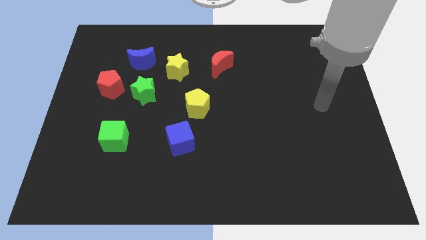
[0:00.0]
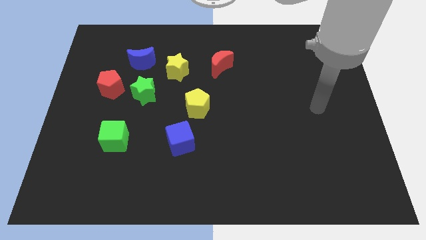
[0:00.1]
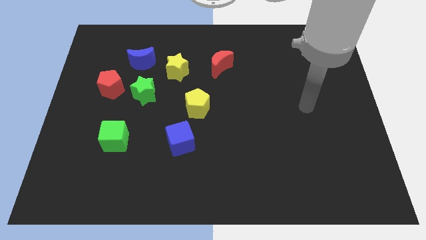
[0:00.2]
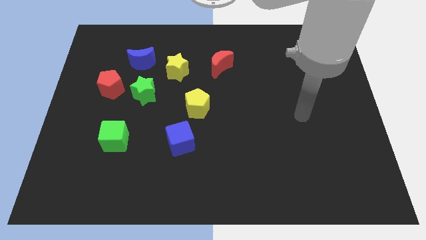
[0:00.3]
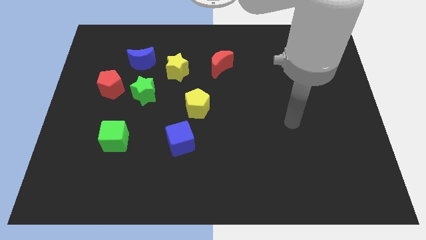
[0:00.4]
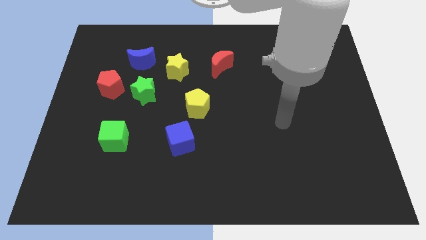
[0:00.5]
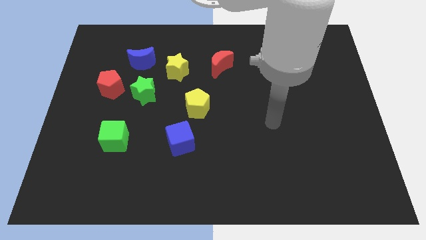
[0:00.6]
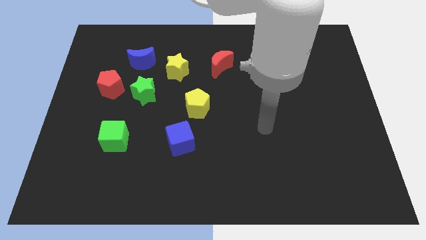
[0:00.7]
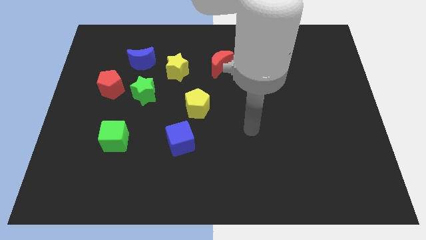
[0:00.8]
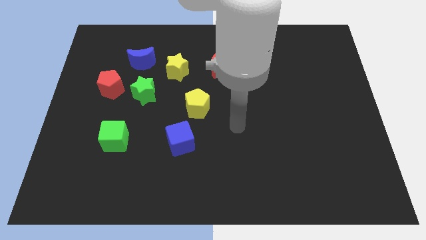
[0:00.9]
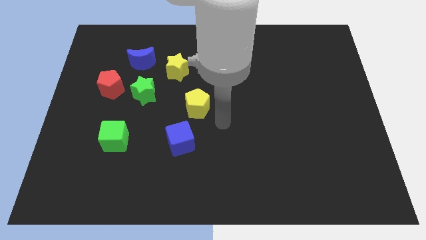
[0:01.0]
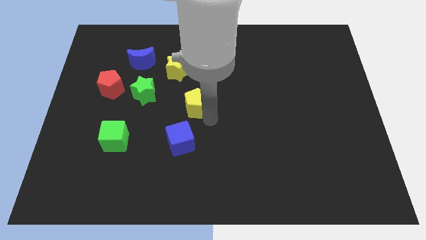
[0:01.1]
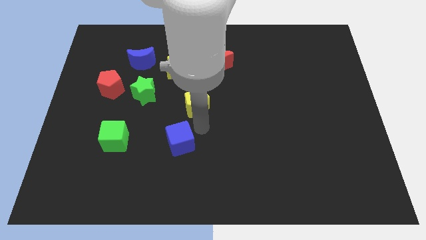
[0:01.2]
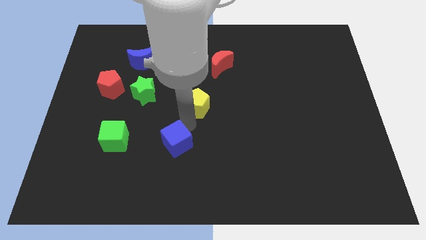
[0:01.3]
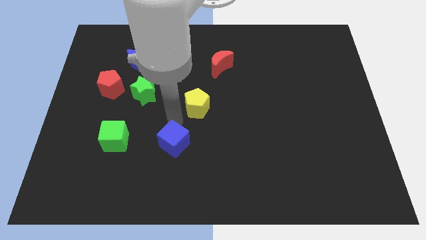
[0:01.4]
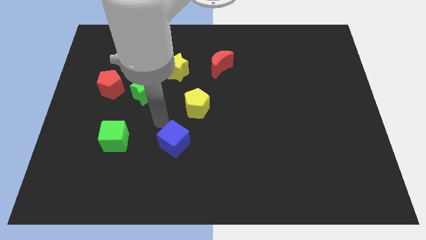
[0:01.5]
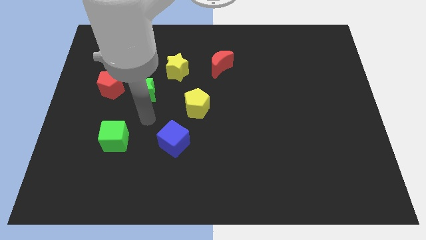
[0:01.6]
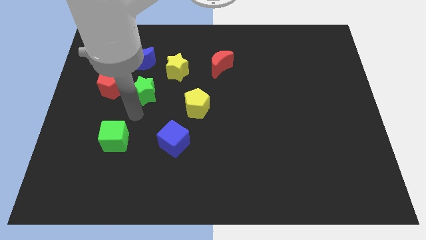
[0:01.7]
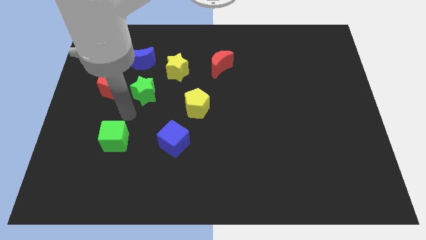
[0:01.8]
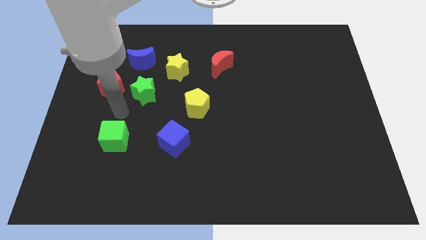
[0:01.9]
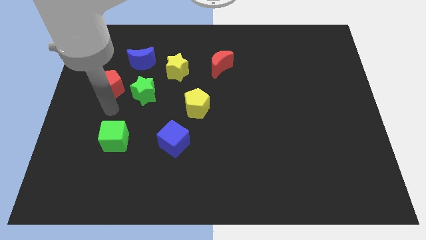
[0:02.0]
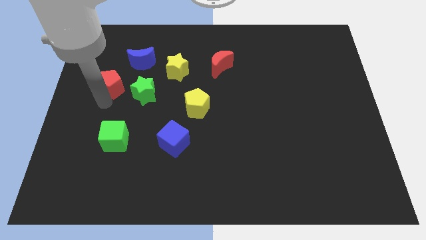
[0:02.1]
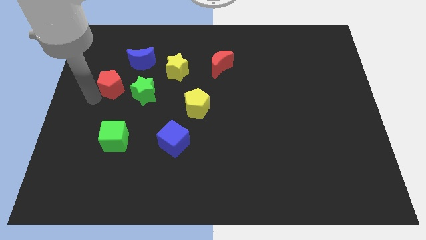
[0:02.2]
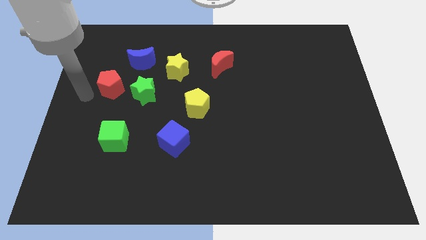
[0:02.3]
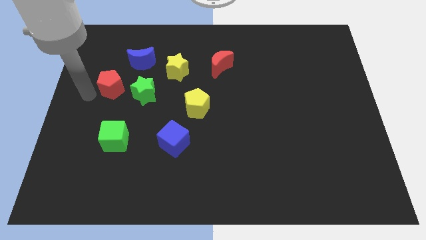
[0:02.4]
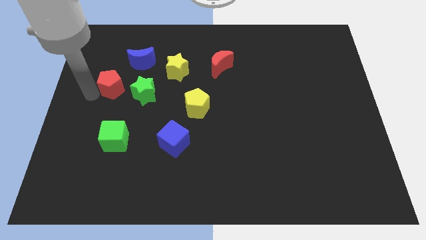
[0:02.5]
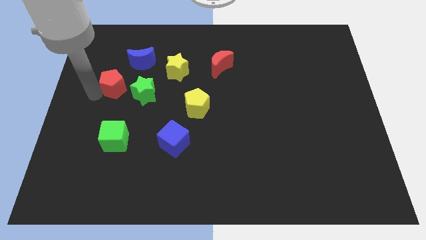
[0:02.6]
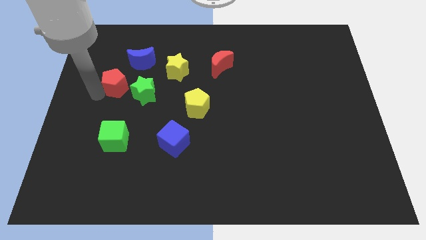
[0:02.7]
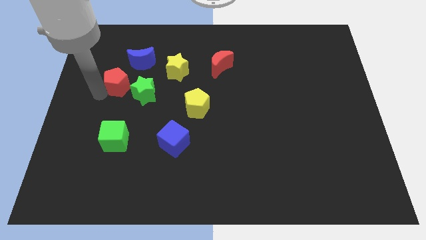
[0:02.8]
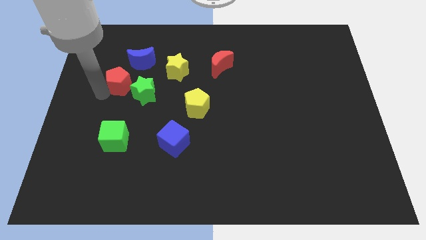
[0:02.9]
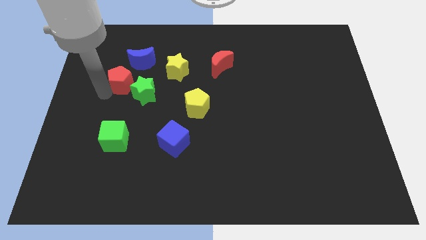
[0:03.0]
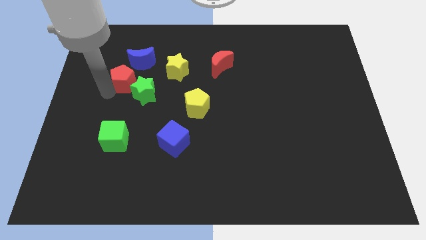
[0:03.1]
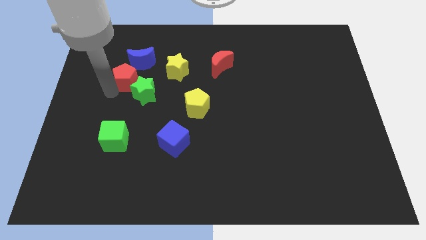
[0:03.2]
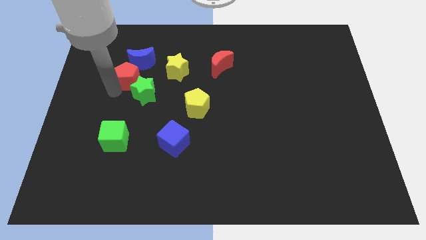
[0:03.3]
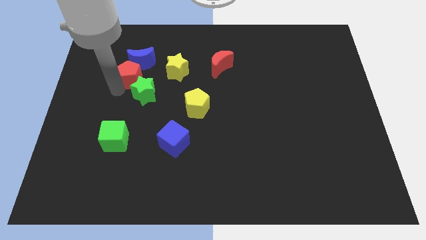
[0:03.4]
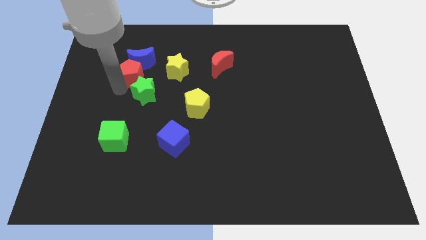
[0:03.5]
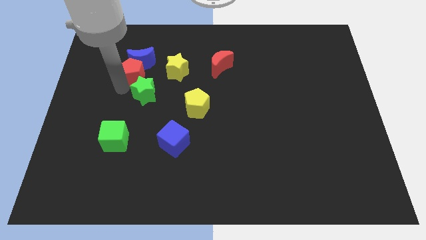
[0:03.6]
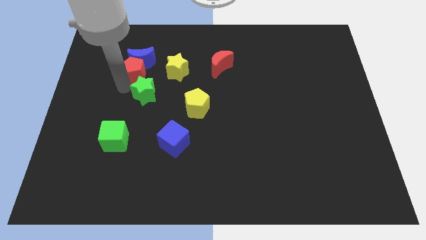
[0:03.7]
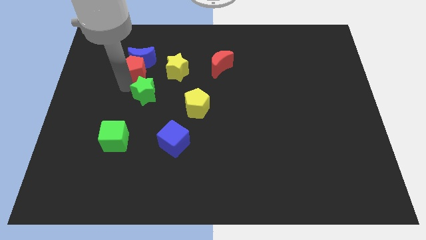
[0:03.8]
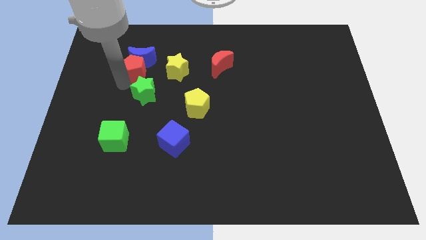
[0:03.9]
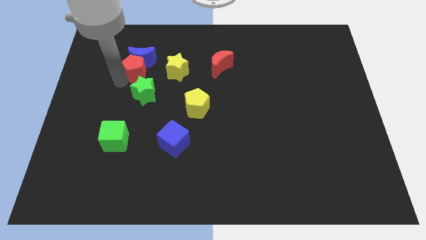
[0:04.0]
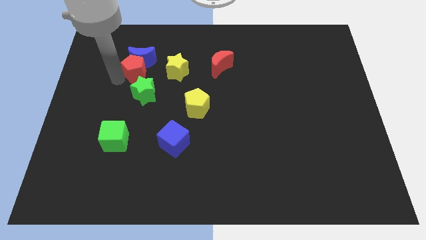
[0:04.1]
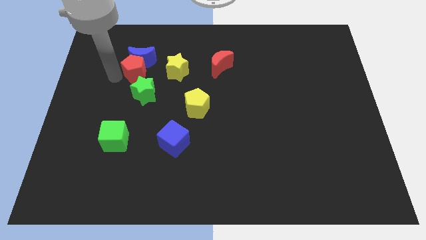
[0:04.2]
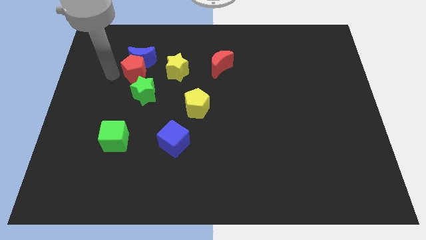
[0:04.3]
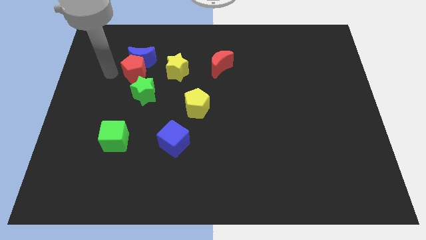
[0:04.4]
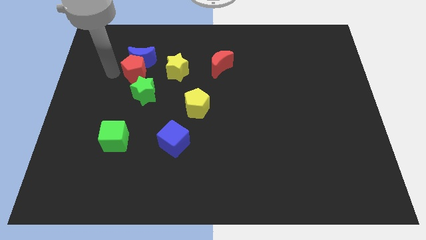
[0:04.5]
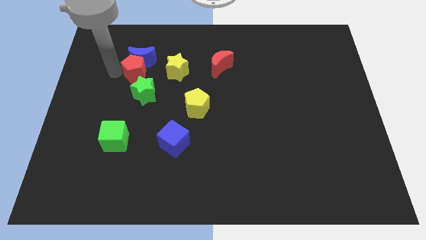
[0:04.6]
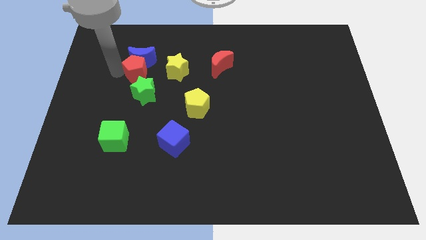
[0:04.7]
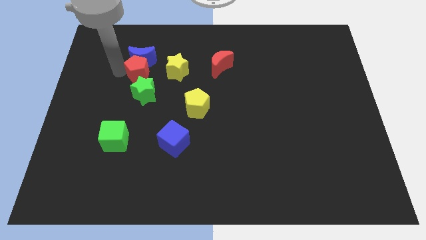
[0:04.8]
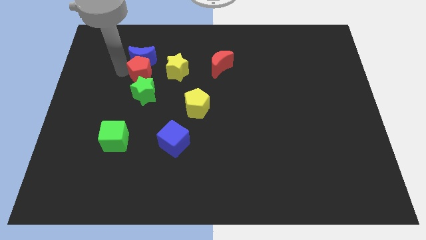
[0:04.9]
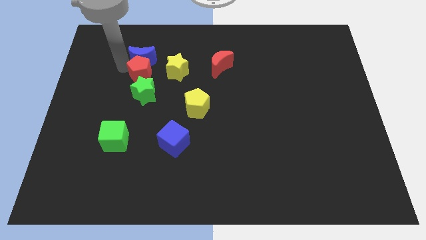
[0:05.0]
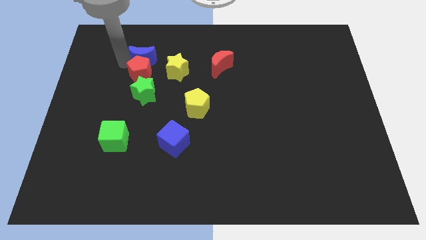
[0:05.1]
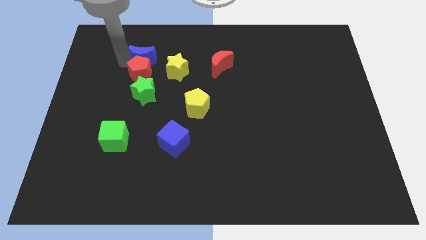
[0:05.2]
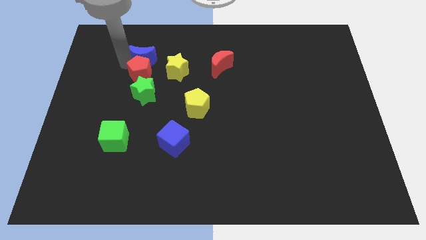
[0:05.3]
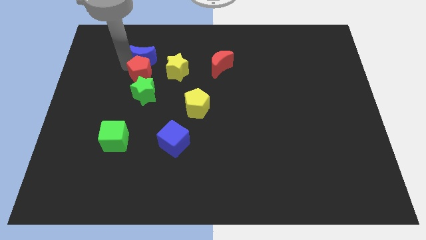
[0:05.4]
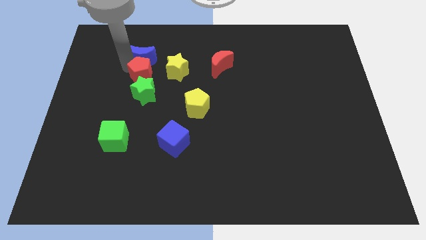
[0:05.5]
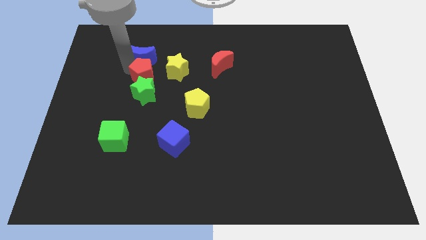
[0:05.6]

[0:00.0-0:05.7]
slightly slide the red pentagon right

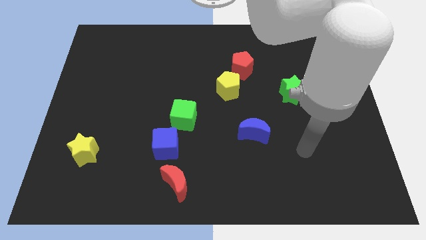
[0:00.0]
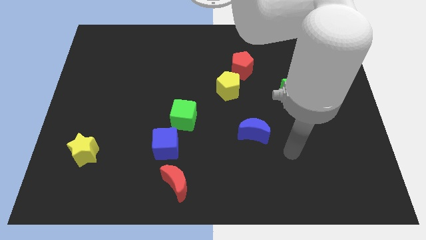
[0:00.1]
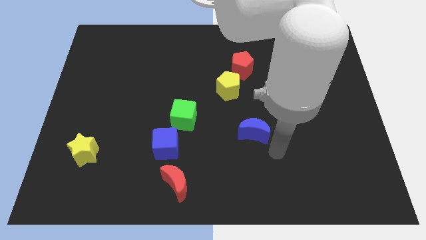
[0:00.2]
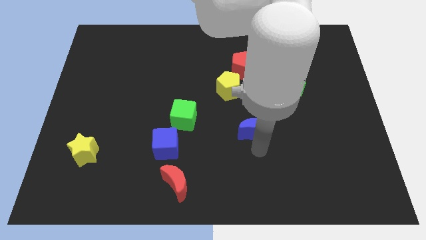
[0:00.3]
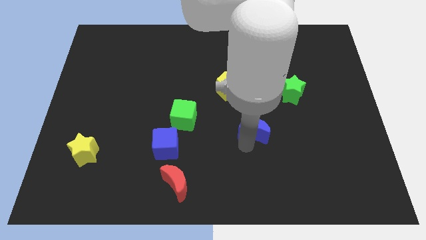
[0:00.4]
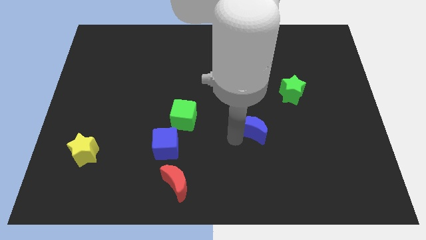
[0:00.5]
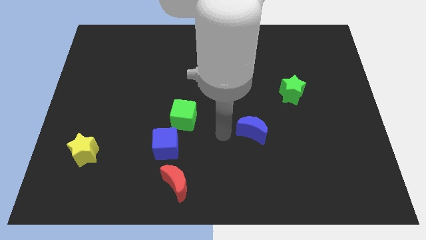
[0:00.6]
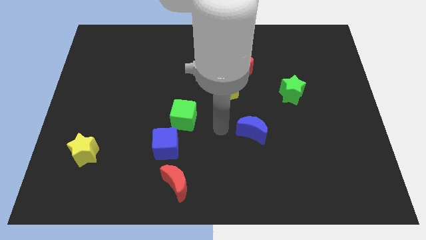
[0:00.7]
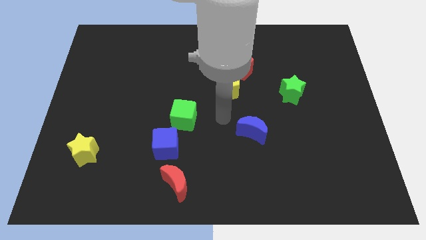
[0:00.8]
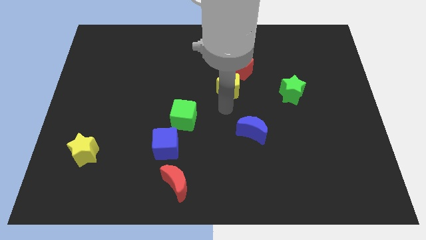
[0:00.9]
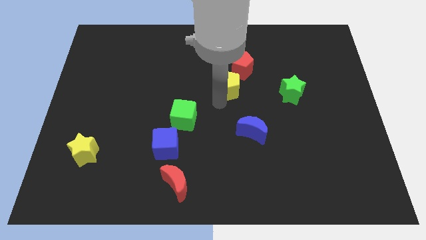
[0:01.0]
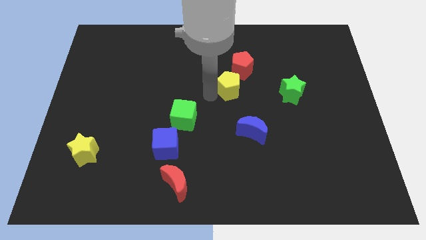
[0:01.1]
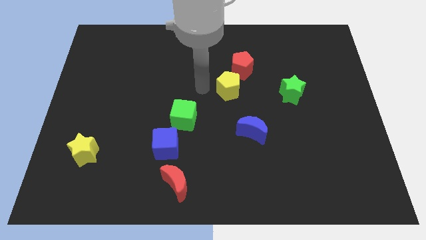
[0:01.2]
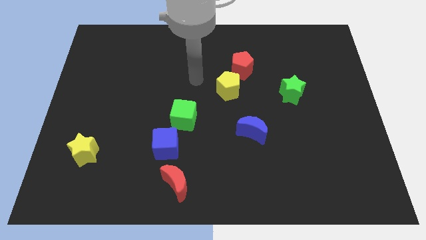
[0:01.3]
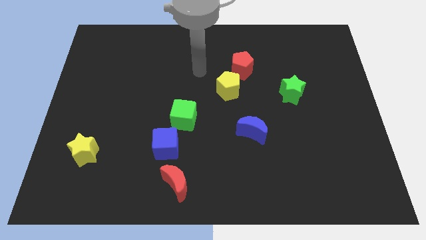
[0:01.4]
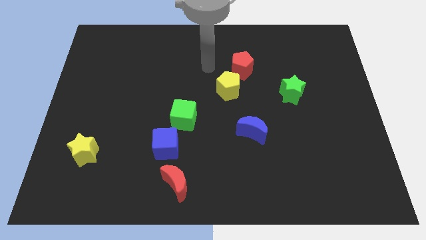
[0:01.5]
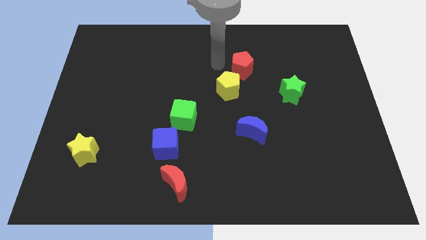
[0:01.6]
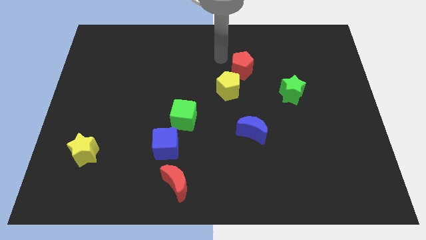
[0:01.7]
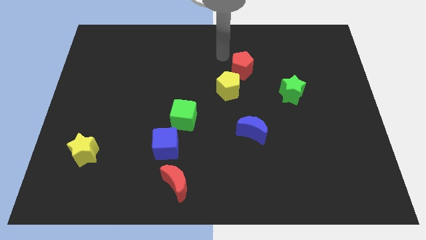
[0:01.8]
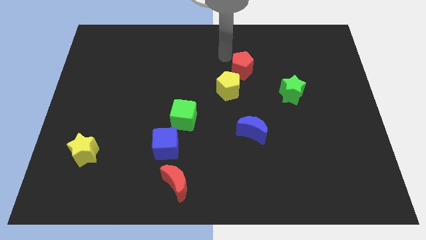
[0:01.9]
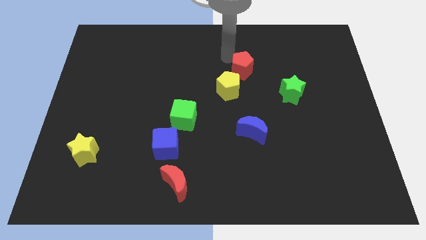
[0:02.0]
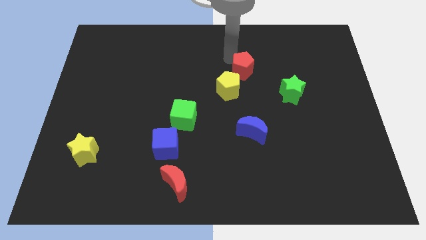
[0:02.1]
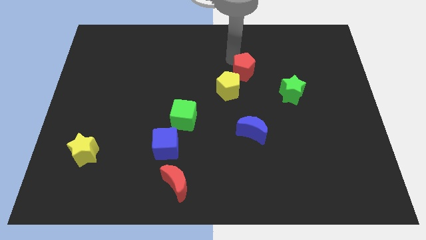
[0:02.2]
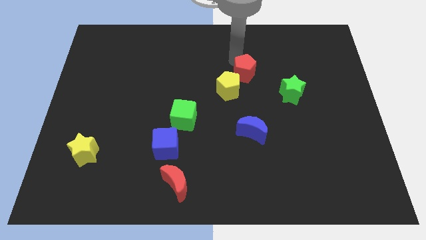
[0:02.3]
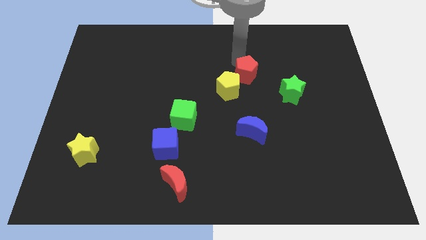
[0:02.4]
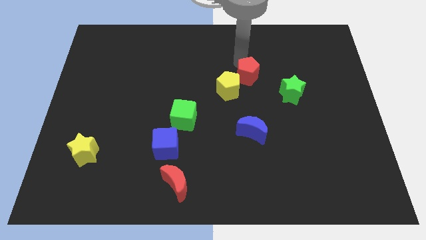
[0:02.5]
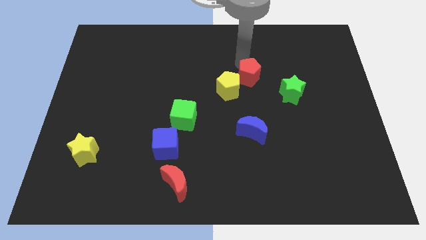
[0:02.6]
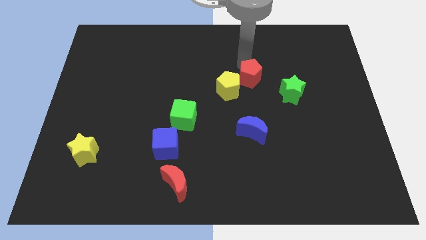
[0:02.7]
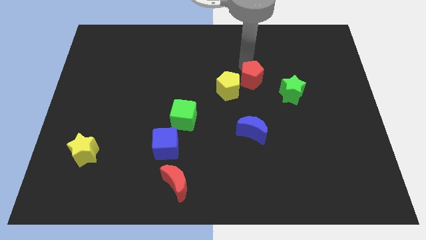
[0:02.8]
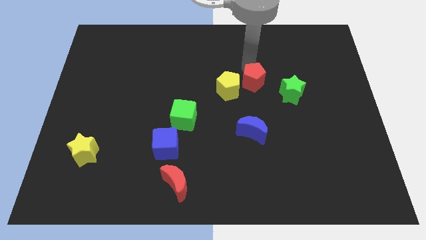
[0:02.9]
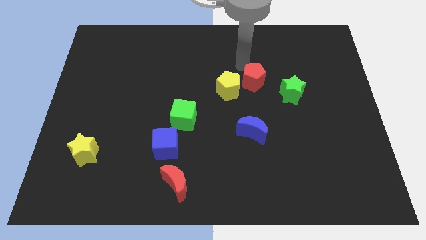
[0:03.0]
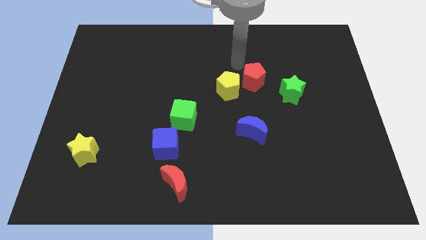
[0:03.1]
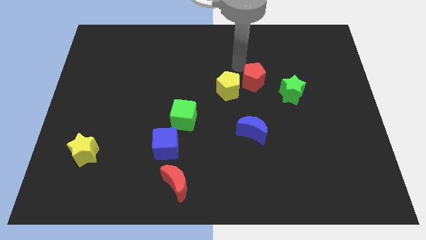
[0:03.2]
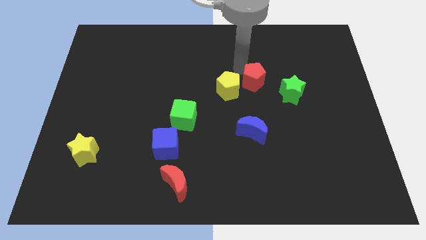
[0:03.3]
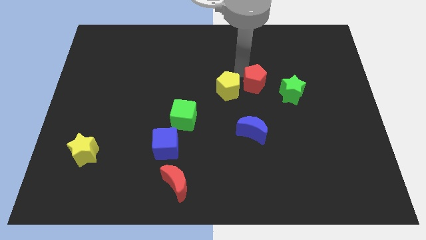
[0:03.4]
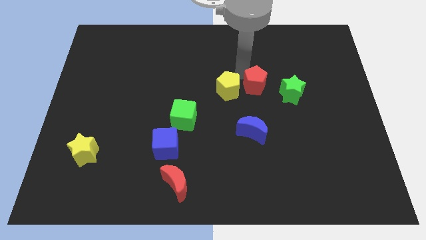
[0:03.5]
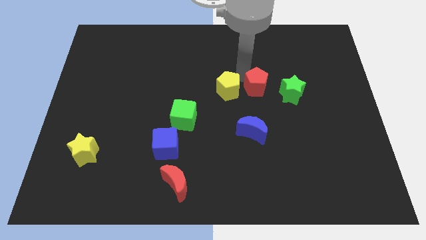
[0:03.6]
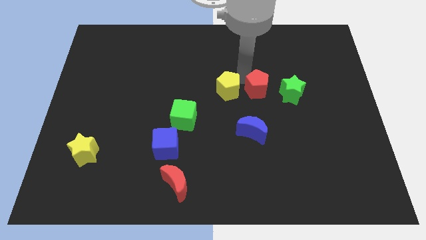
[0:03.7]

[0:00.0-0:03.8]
slide the red pentagon somewhat downwards and to the right
